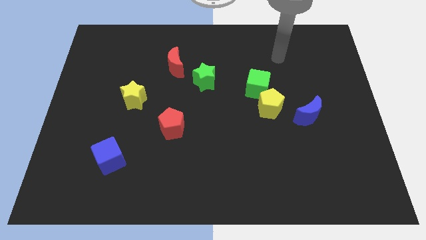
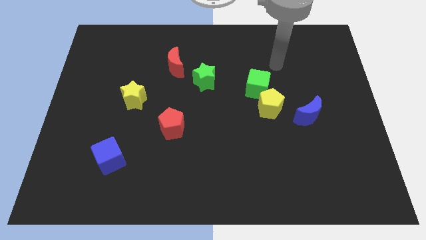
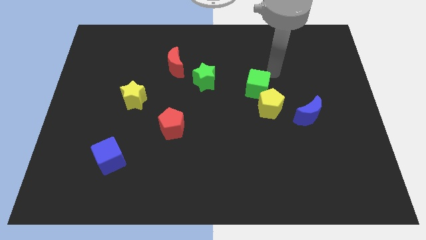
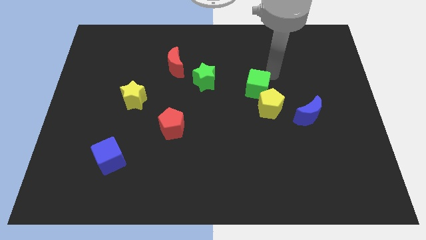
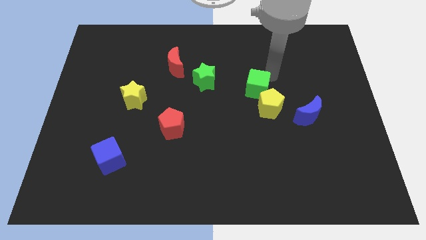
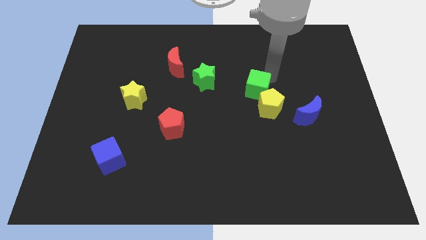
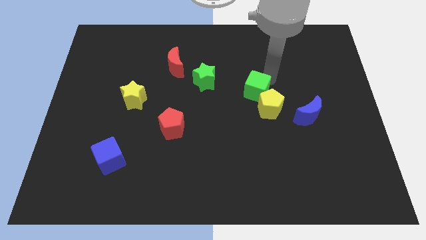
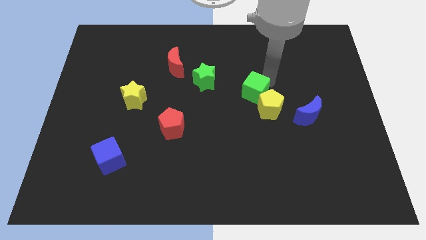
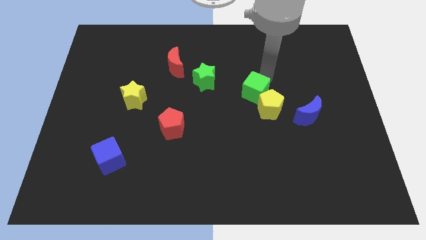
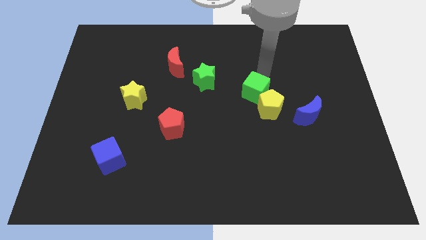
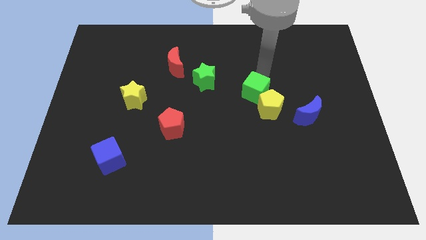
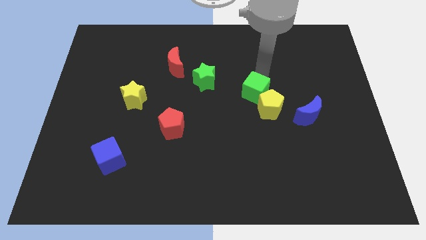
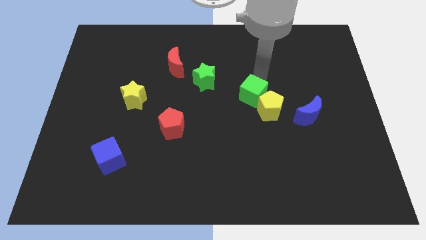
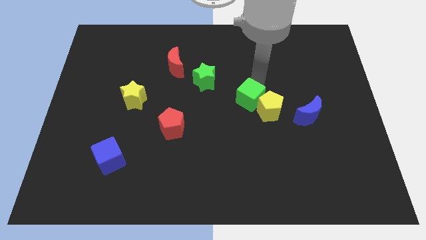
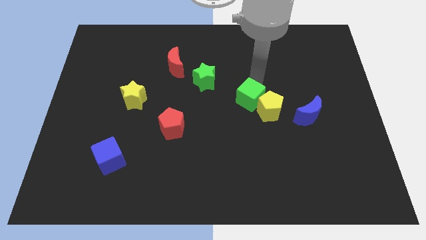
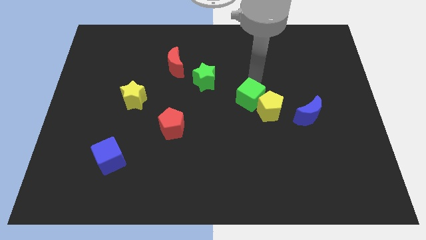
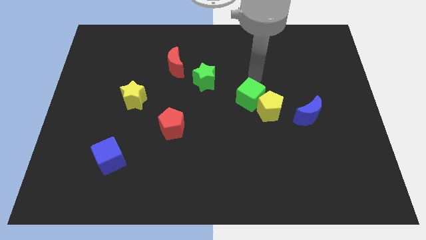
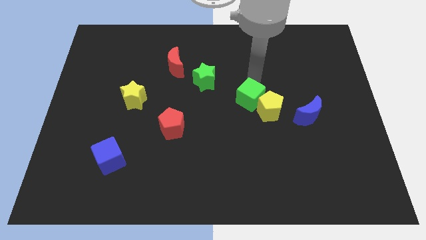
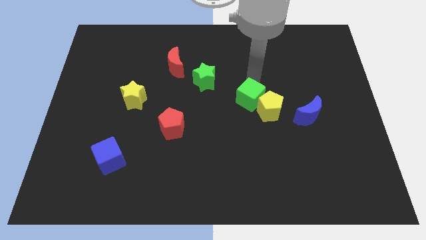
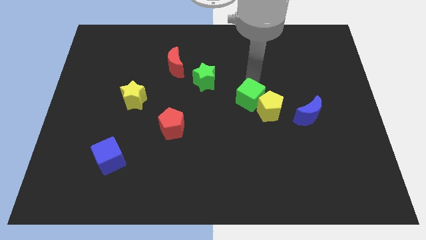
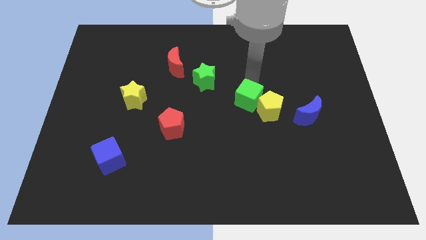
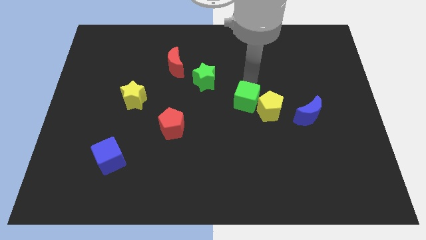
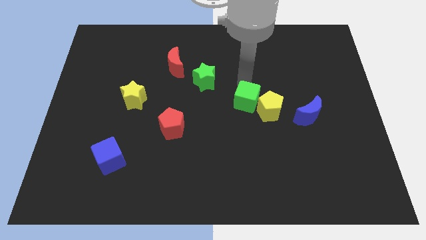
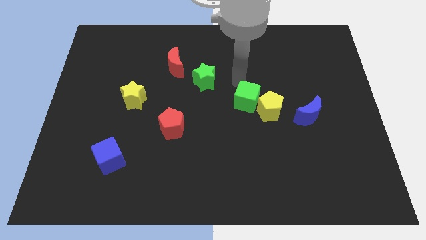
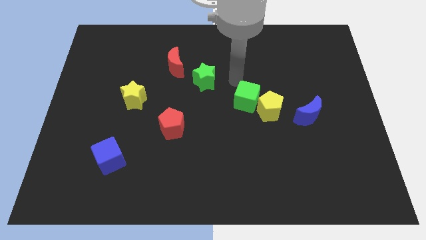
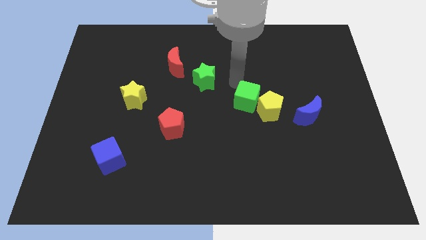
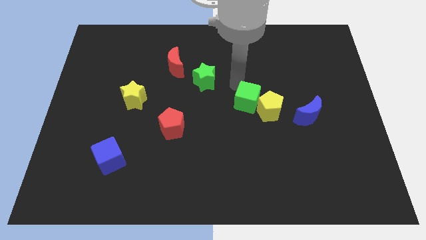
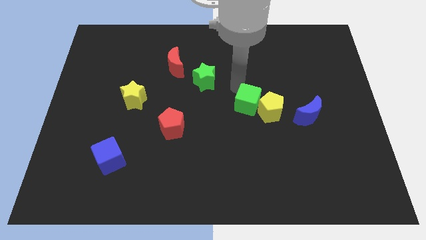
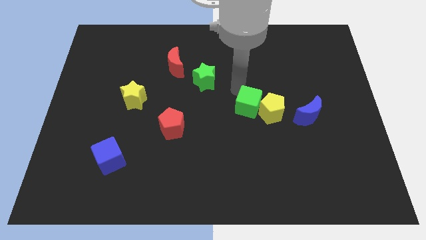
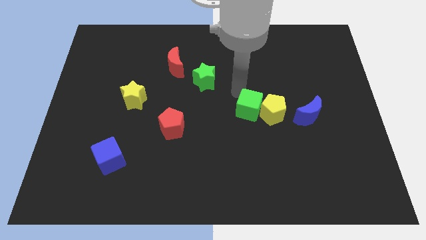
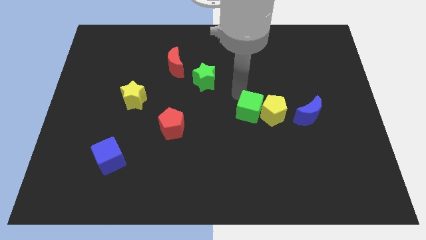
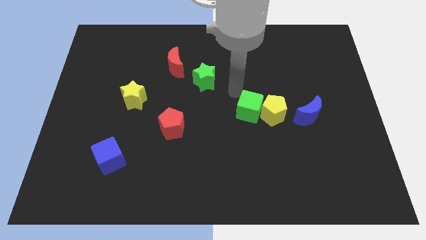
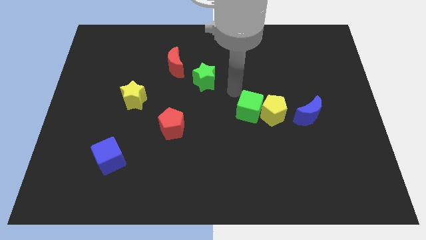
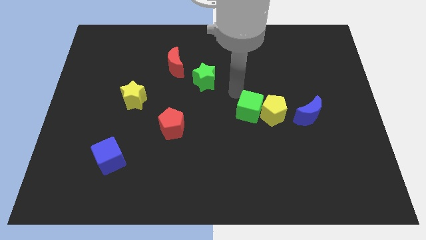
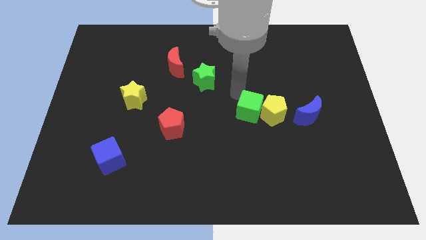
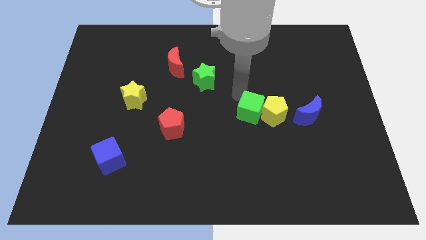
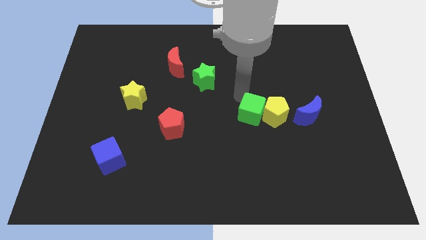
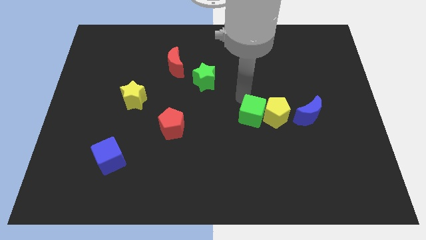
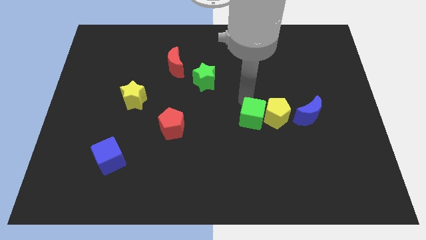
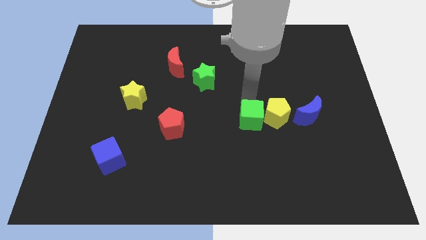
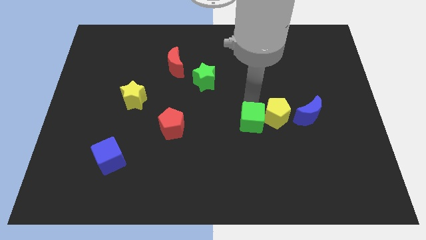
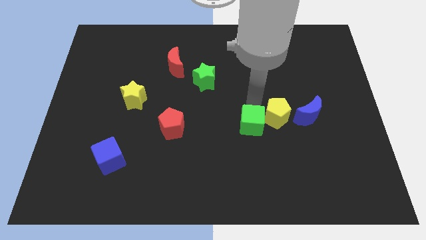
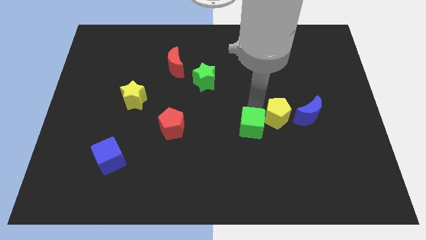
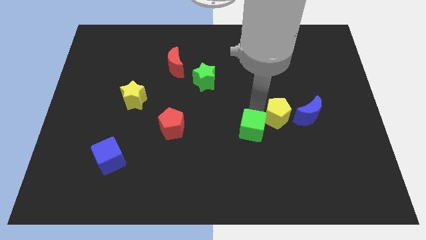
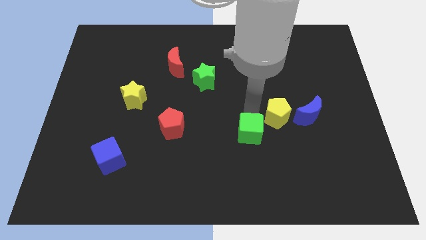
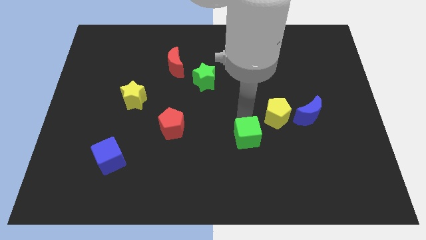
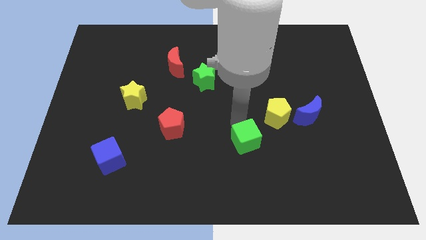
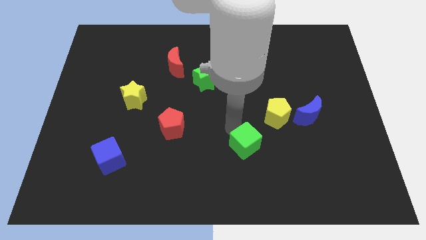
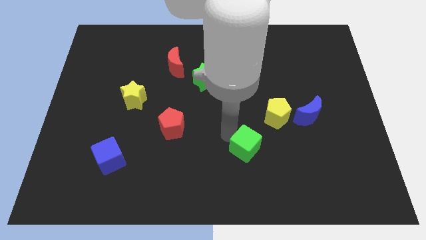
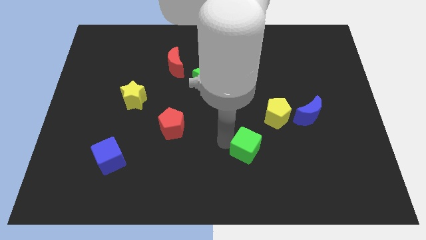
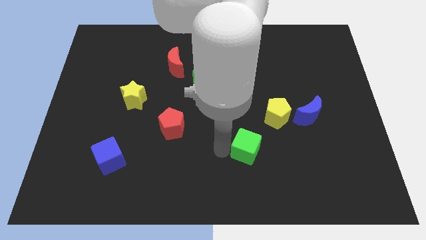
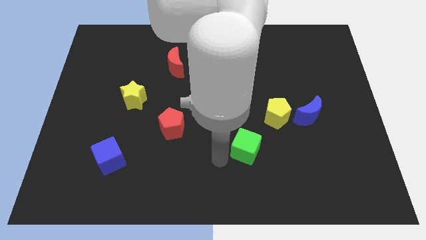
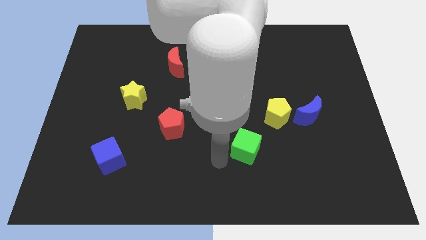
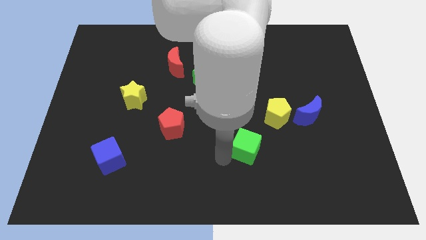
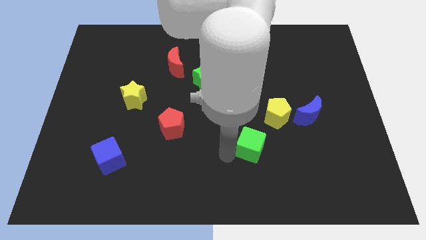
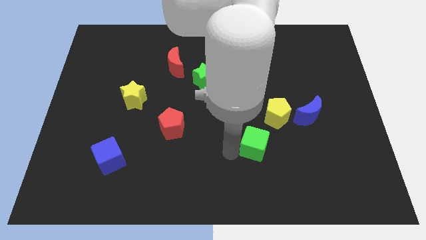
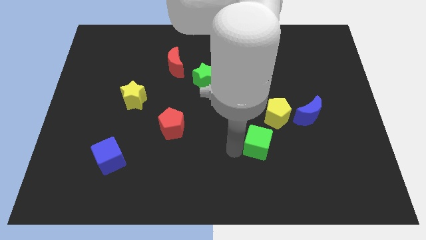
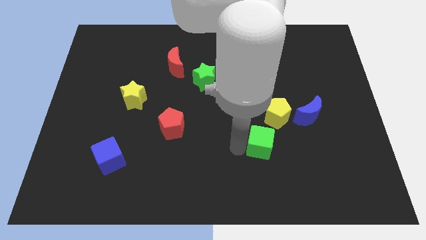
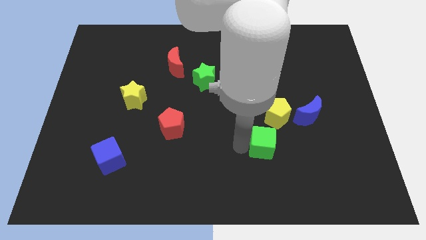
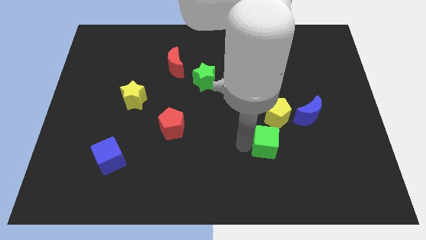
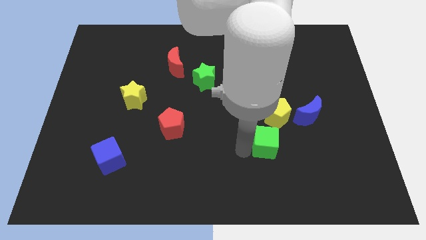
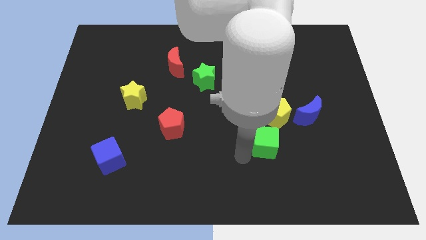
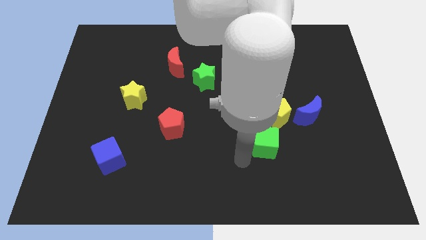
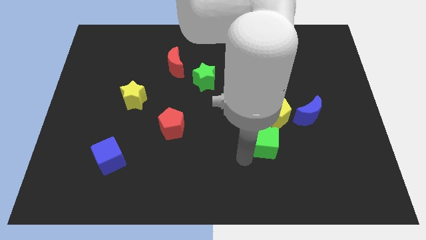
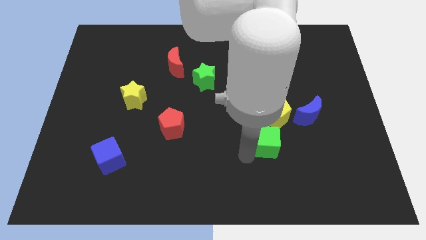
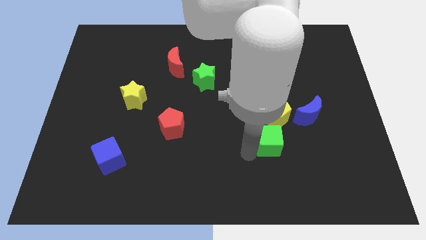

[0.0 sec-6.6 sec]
move the green cube diagonally down and right a little

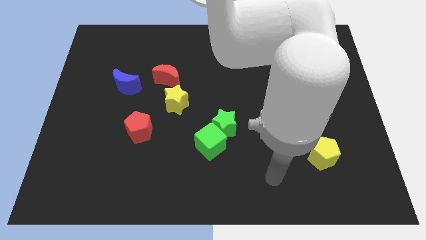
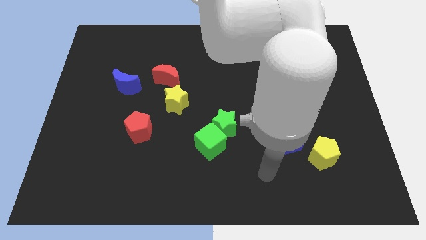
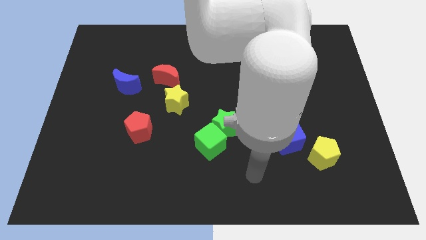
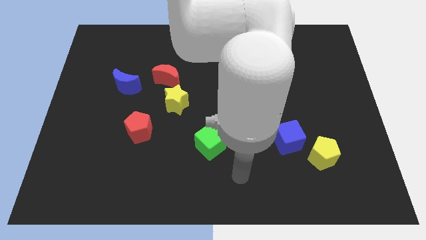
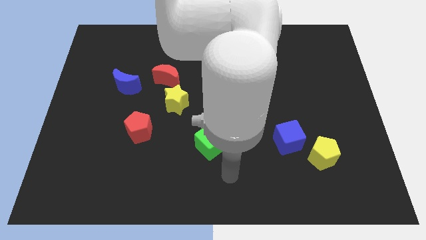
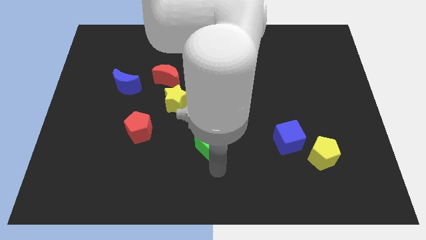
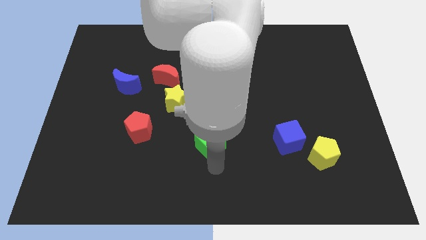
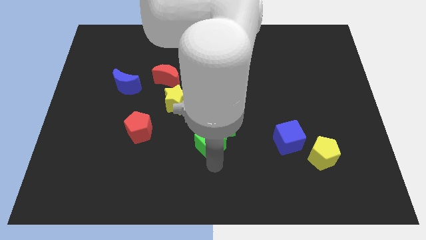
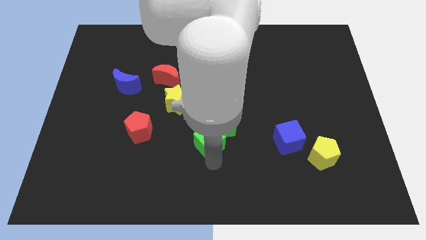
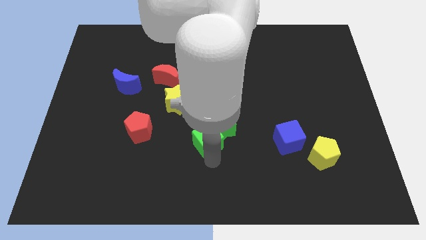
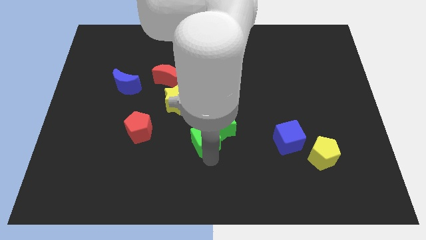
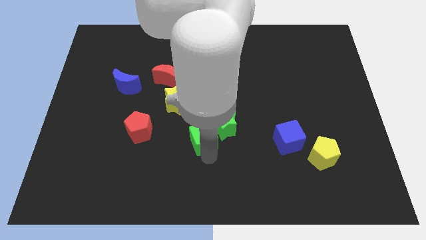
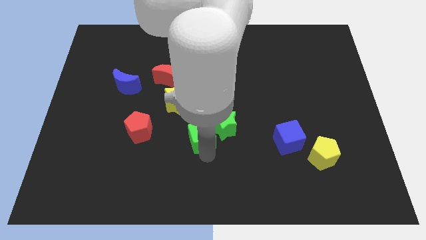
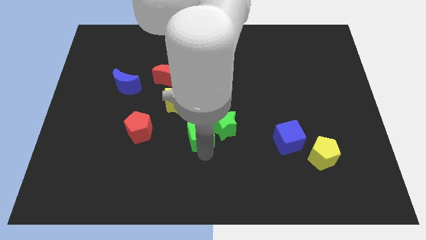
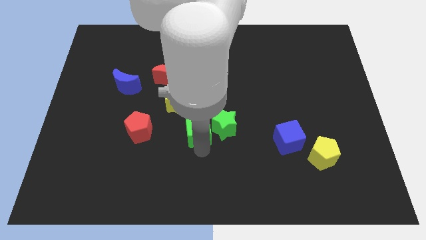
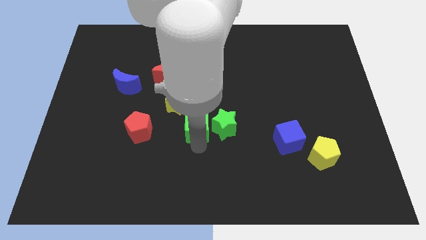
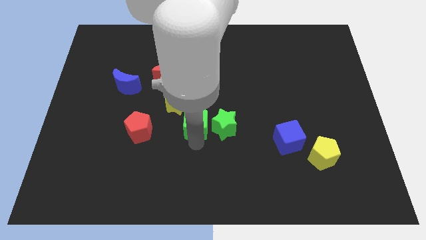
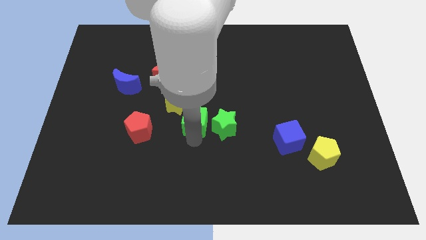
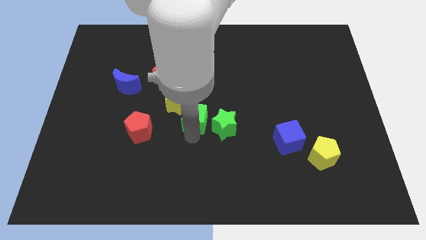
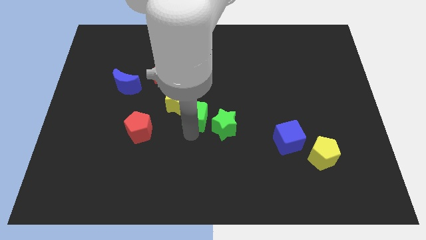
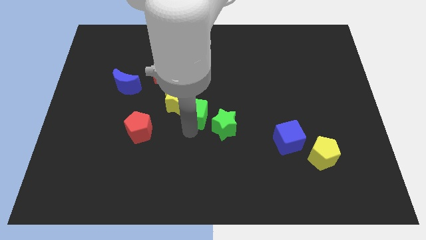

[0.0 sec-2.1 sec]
slightly move the green cube upwards
